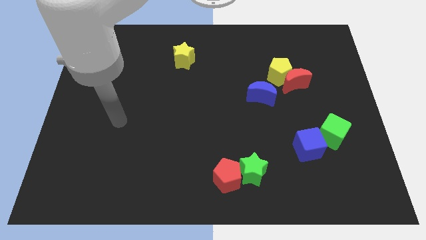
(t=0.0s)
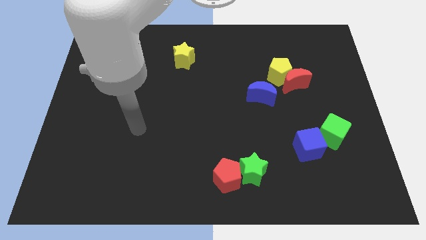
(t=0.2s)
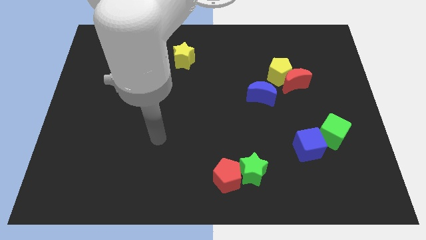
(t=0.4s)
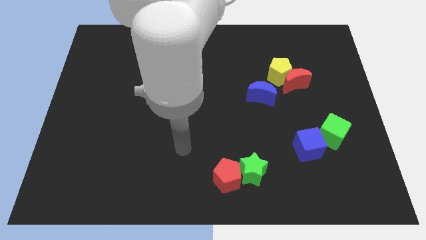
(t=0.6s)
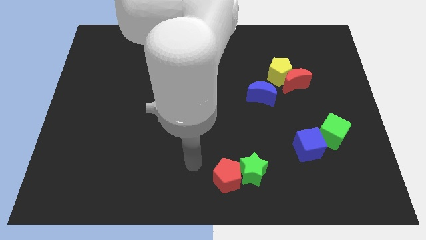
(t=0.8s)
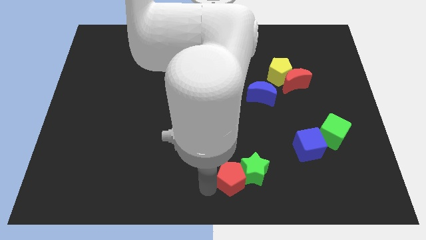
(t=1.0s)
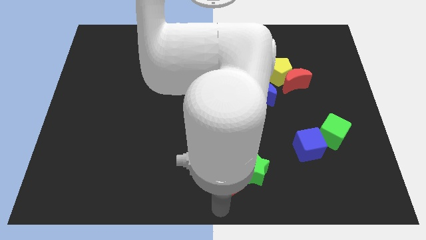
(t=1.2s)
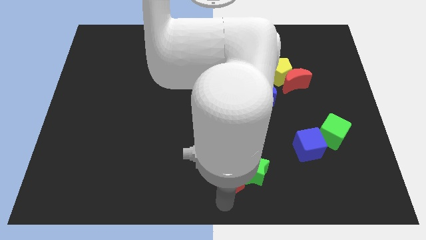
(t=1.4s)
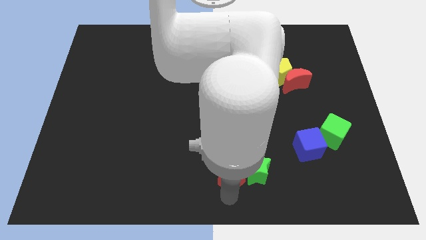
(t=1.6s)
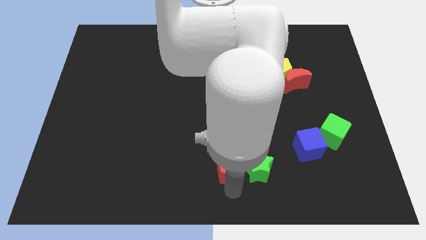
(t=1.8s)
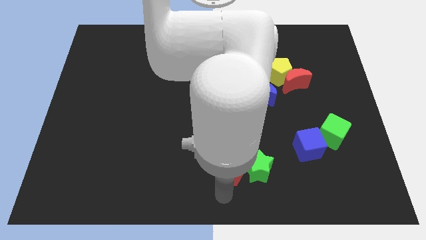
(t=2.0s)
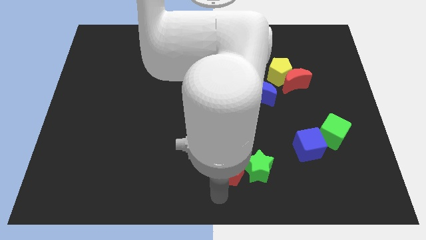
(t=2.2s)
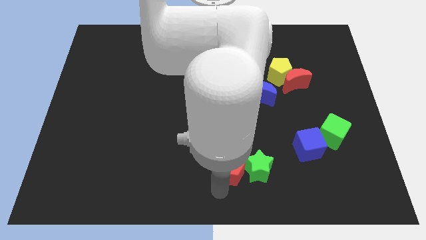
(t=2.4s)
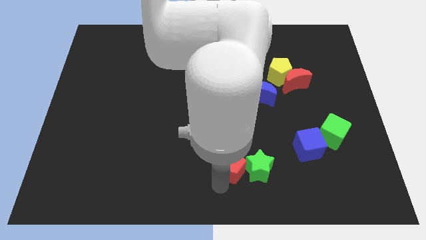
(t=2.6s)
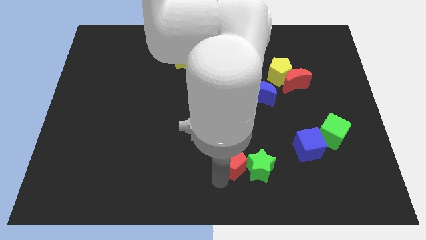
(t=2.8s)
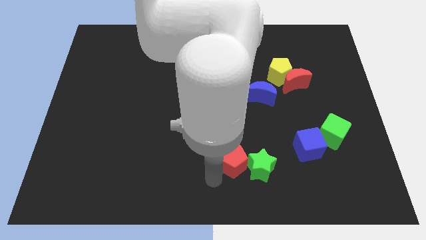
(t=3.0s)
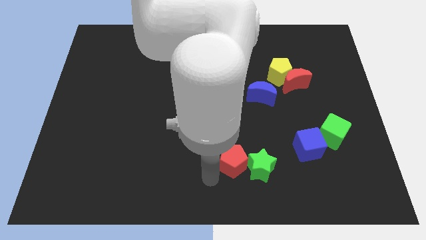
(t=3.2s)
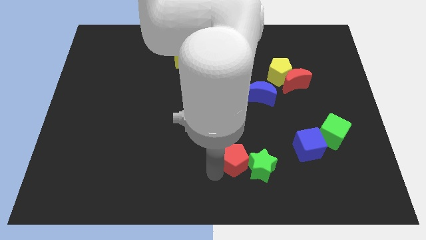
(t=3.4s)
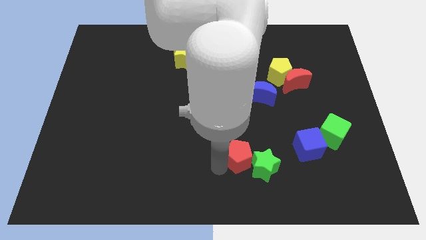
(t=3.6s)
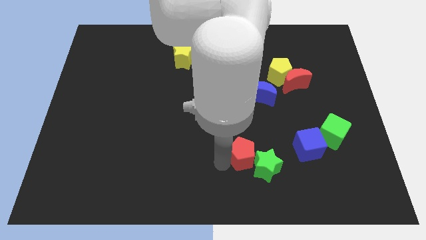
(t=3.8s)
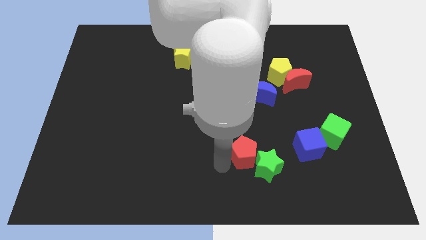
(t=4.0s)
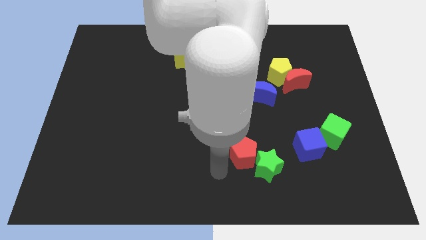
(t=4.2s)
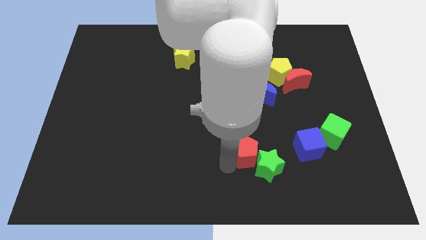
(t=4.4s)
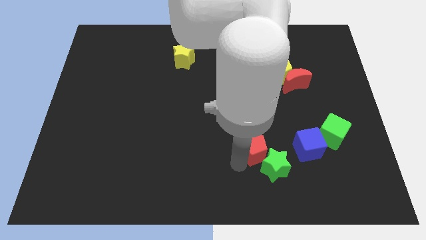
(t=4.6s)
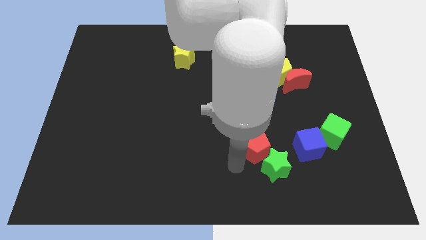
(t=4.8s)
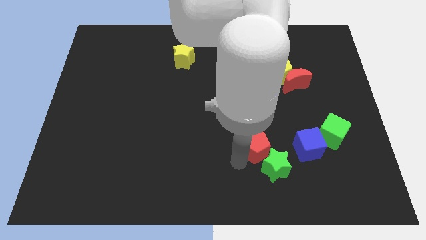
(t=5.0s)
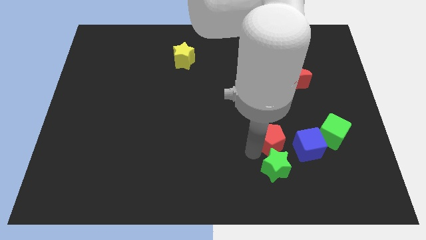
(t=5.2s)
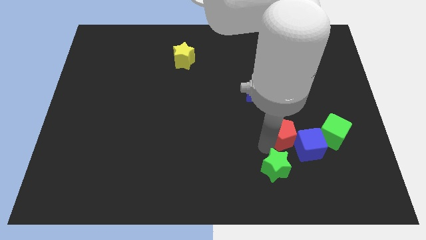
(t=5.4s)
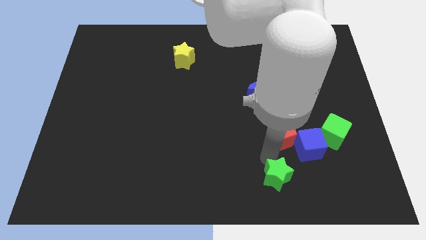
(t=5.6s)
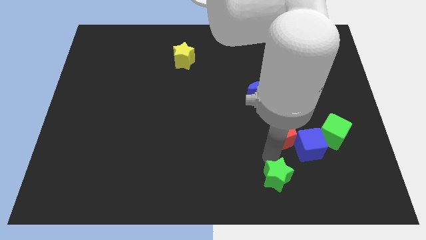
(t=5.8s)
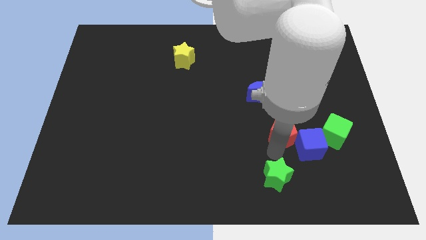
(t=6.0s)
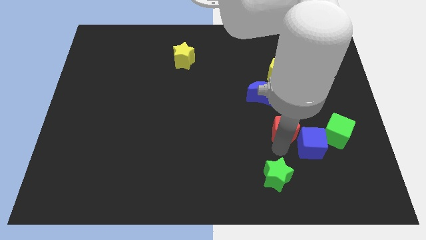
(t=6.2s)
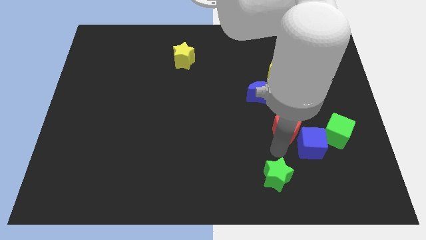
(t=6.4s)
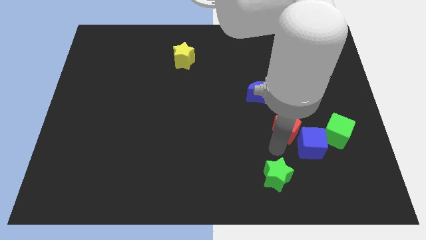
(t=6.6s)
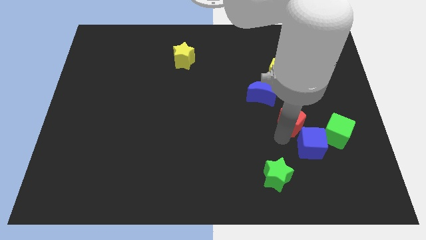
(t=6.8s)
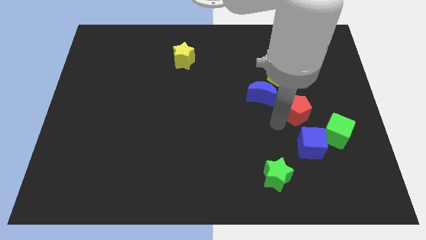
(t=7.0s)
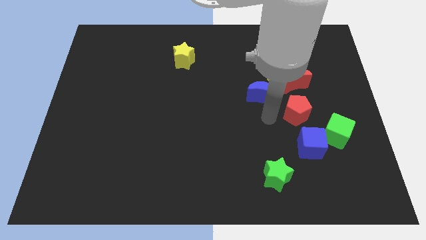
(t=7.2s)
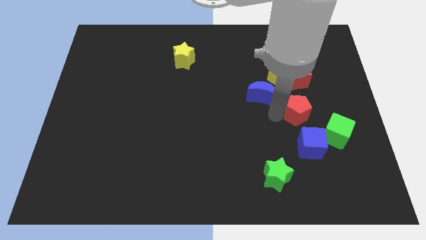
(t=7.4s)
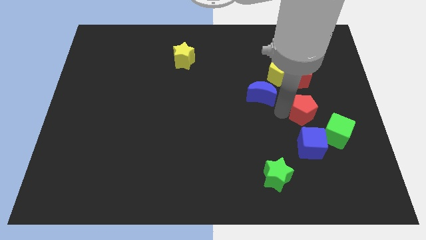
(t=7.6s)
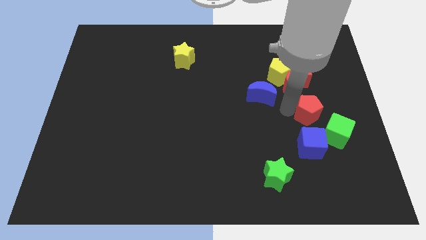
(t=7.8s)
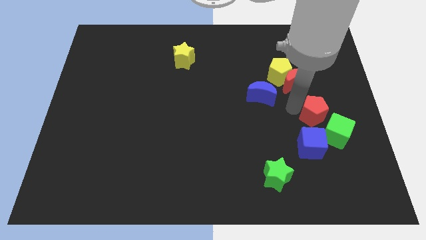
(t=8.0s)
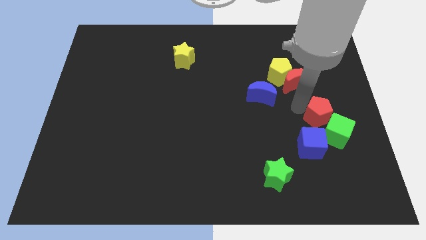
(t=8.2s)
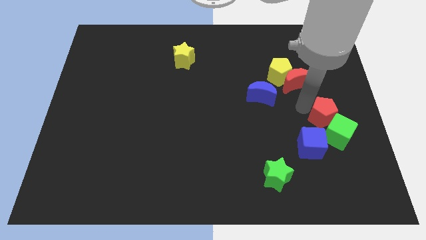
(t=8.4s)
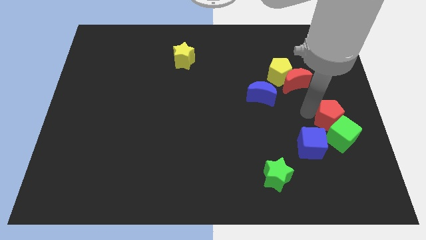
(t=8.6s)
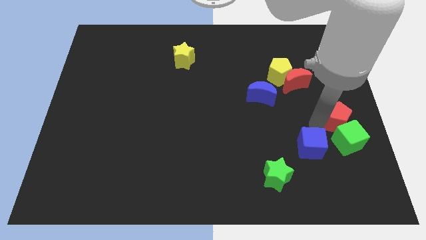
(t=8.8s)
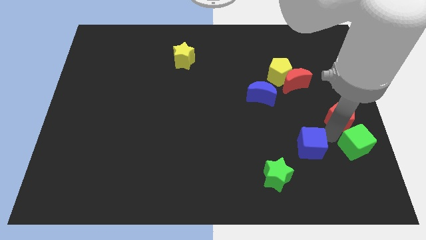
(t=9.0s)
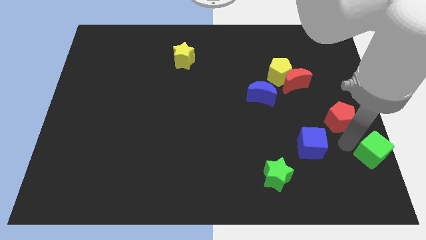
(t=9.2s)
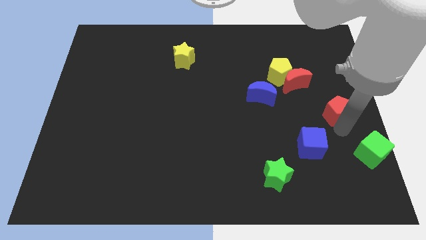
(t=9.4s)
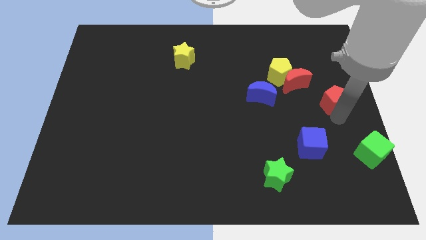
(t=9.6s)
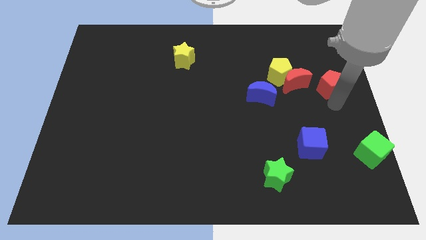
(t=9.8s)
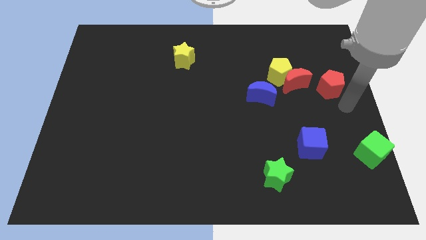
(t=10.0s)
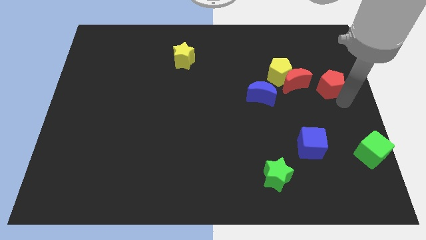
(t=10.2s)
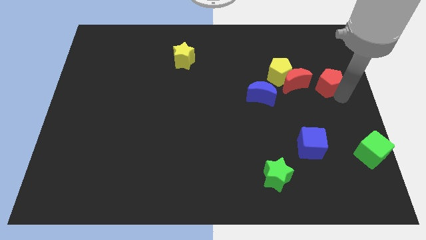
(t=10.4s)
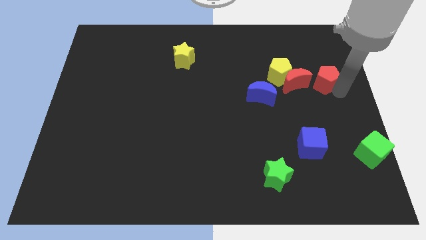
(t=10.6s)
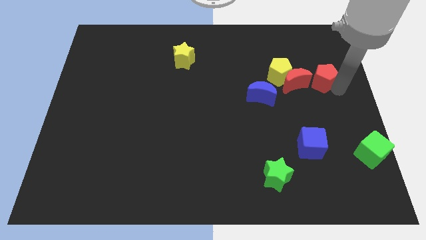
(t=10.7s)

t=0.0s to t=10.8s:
slide the red pentagon to the top right side of the red moon

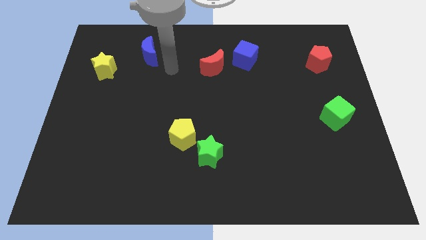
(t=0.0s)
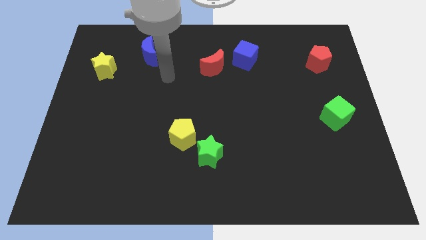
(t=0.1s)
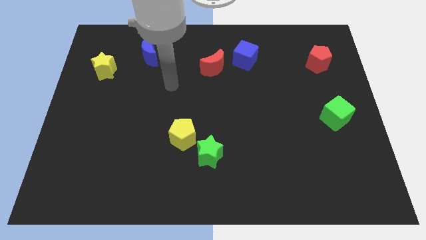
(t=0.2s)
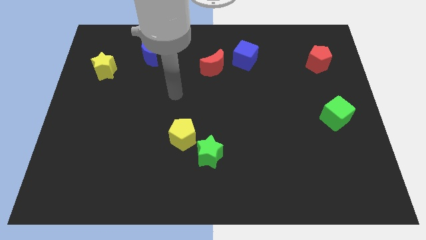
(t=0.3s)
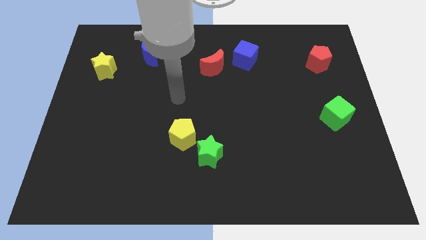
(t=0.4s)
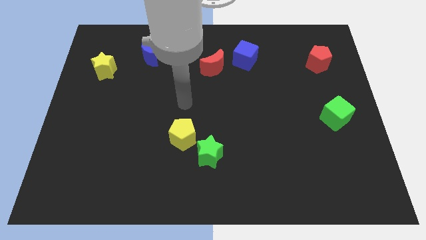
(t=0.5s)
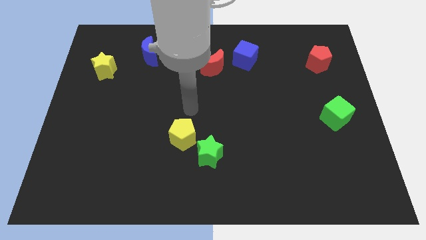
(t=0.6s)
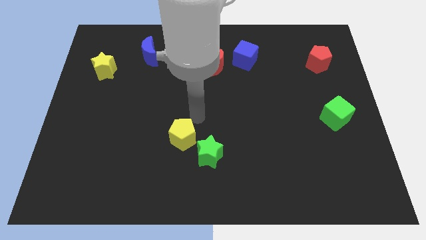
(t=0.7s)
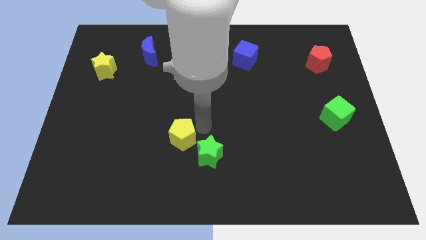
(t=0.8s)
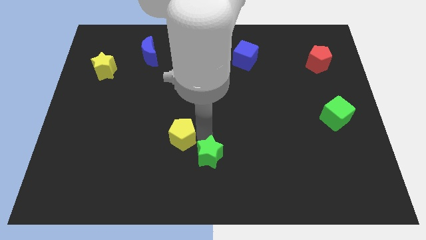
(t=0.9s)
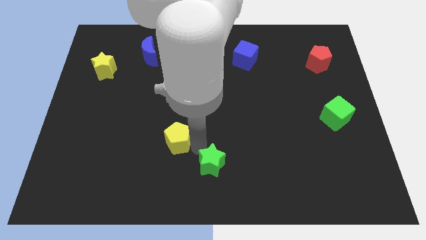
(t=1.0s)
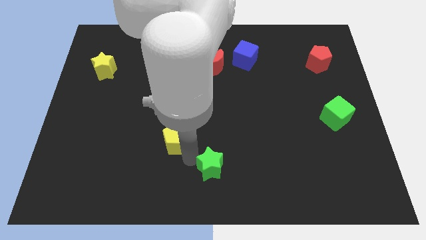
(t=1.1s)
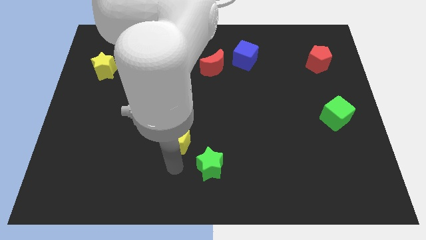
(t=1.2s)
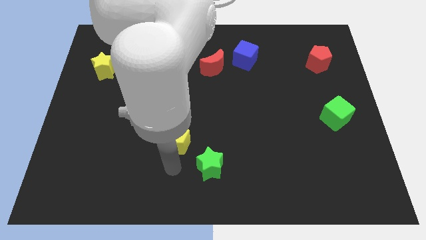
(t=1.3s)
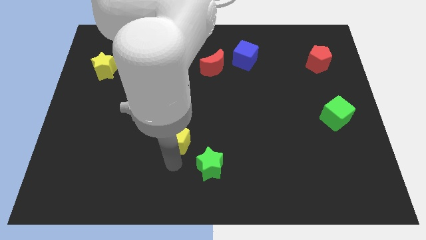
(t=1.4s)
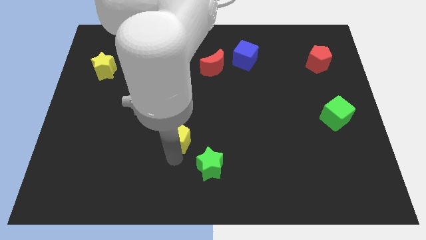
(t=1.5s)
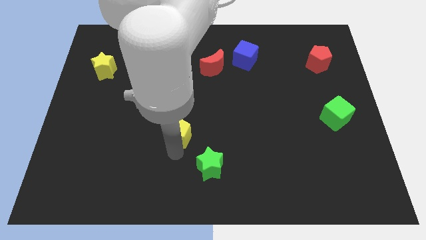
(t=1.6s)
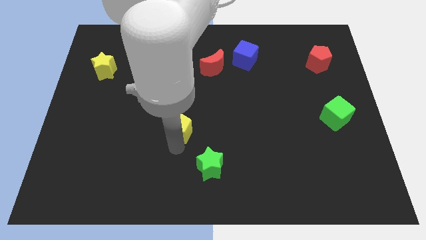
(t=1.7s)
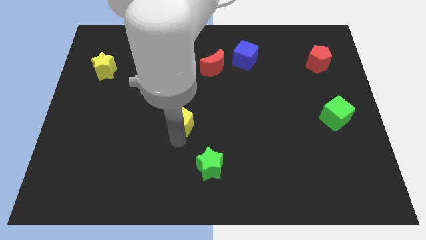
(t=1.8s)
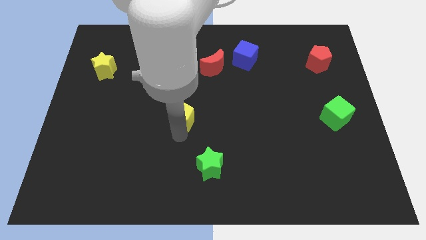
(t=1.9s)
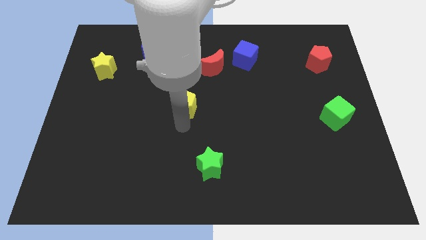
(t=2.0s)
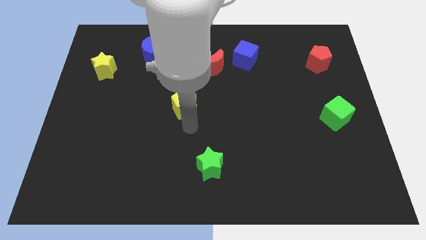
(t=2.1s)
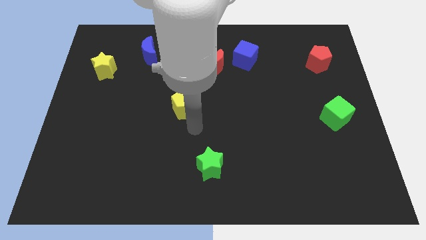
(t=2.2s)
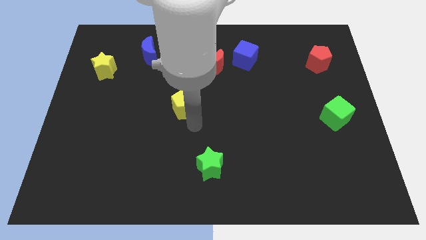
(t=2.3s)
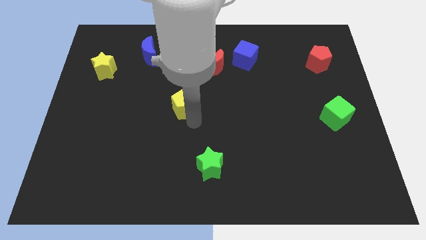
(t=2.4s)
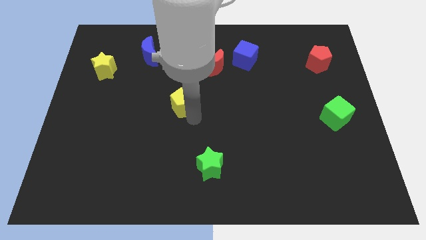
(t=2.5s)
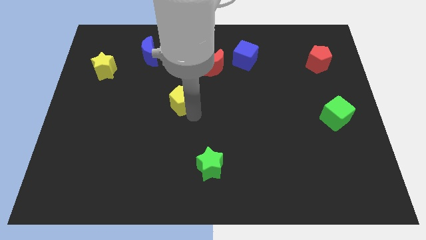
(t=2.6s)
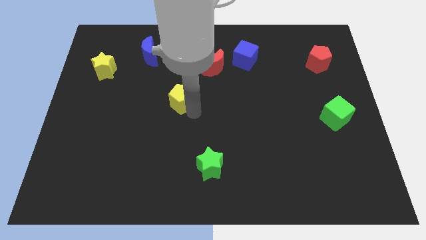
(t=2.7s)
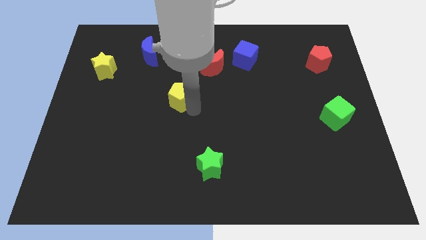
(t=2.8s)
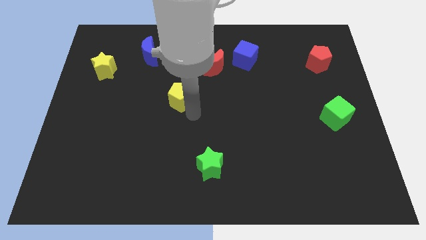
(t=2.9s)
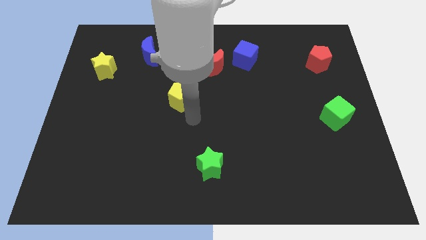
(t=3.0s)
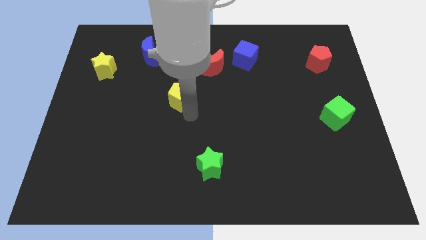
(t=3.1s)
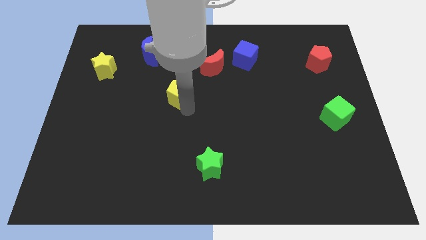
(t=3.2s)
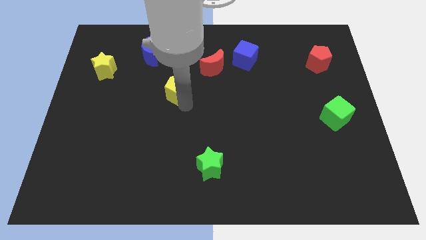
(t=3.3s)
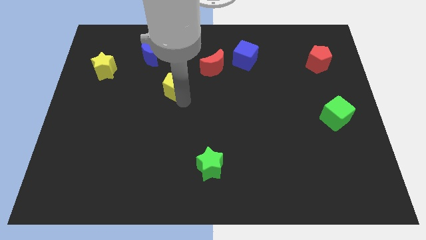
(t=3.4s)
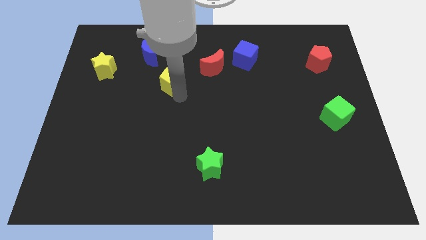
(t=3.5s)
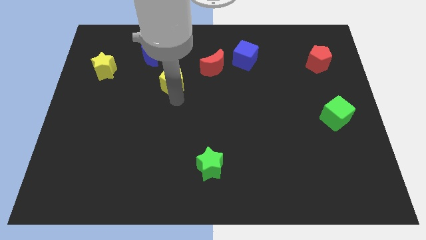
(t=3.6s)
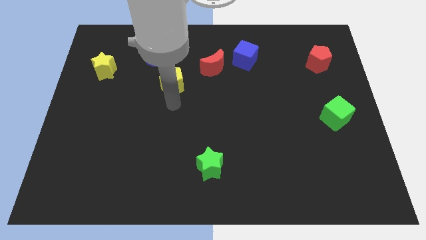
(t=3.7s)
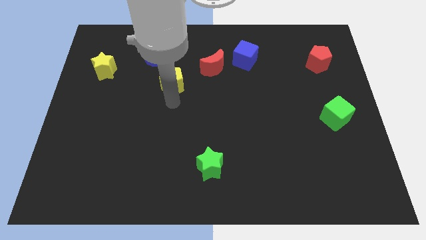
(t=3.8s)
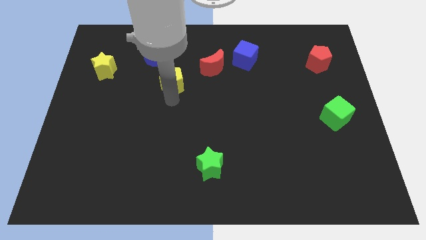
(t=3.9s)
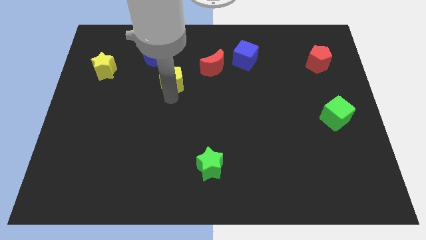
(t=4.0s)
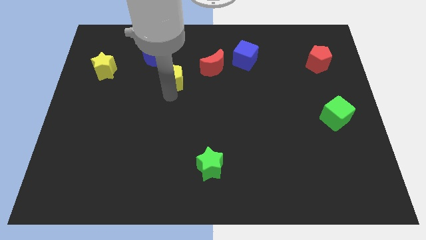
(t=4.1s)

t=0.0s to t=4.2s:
put the yellow pentagon to the left of the red moon
